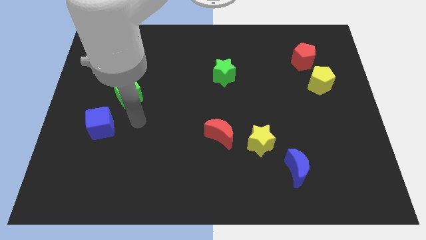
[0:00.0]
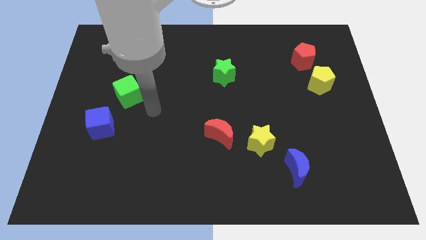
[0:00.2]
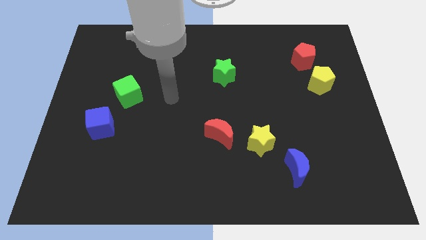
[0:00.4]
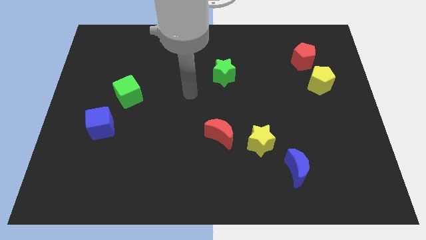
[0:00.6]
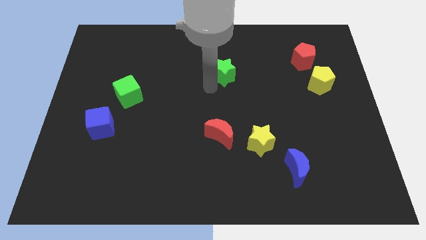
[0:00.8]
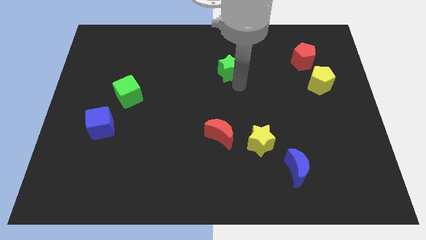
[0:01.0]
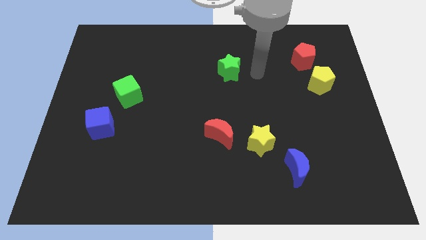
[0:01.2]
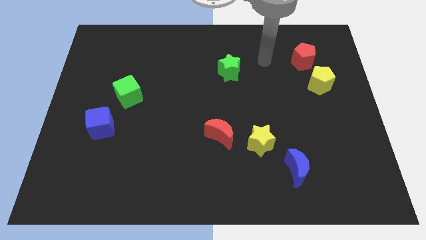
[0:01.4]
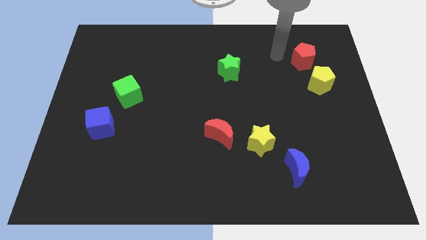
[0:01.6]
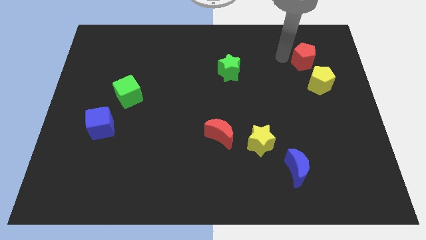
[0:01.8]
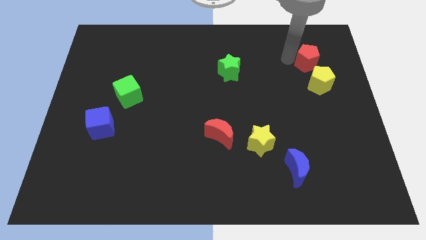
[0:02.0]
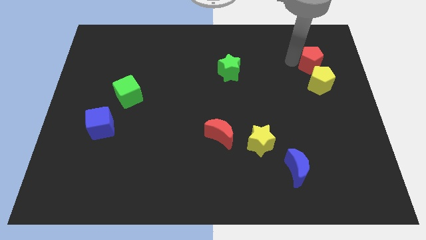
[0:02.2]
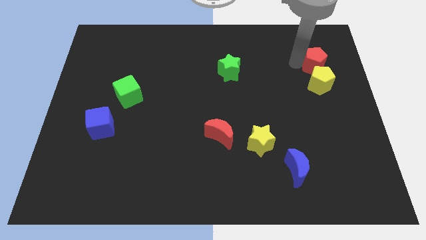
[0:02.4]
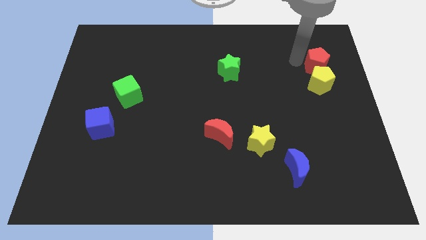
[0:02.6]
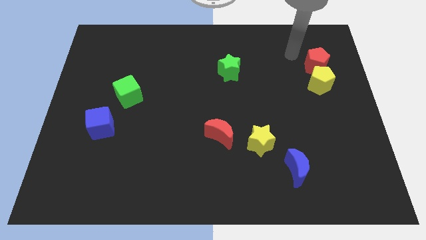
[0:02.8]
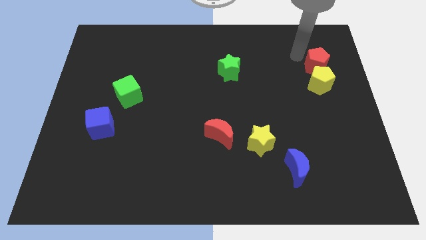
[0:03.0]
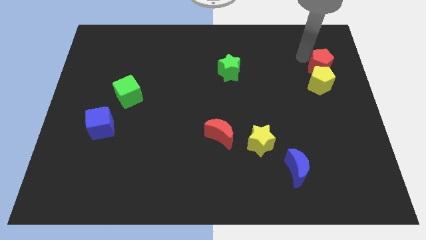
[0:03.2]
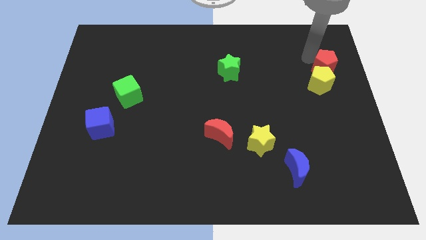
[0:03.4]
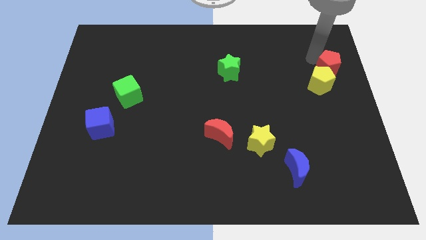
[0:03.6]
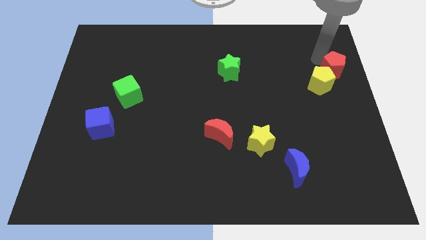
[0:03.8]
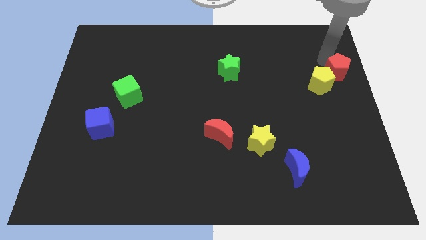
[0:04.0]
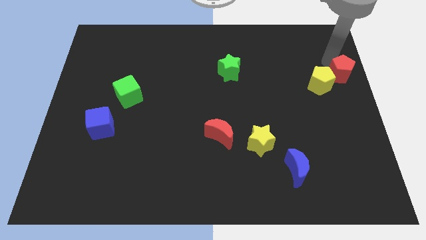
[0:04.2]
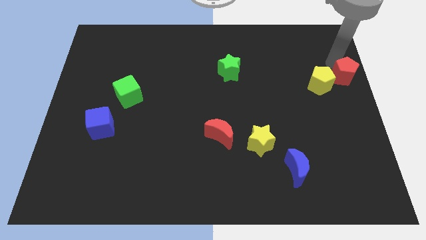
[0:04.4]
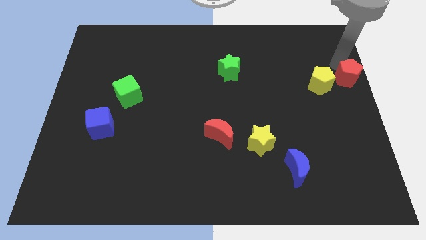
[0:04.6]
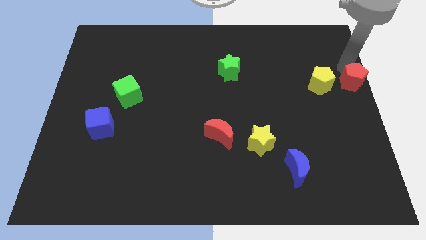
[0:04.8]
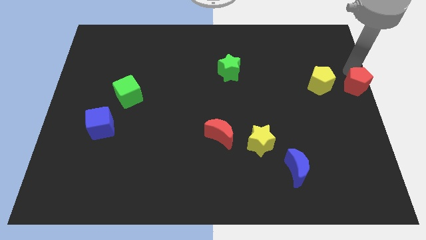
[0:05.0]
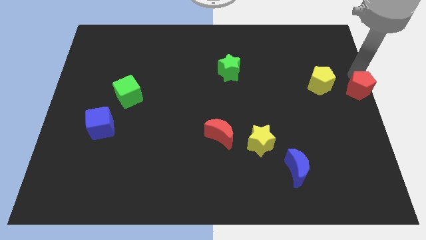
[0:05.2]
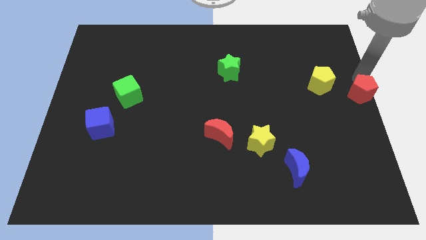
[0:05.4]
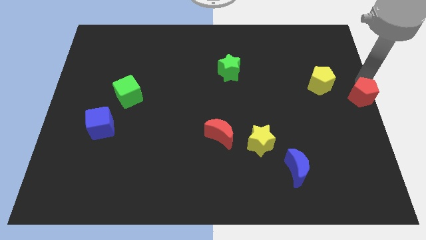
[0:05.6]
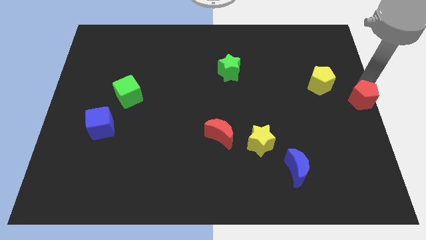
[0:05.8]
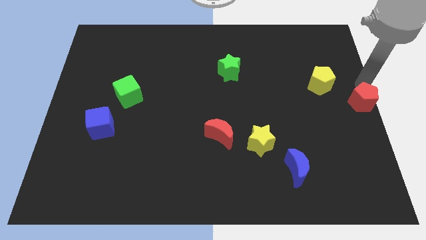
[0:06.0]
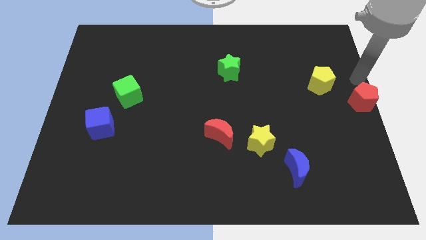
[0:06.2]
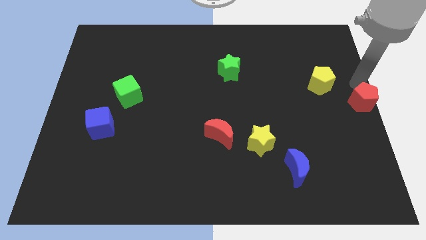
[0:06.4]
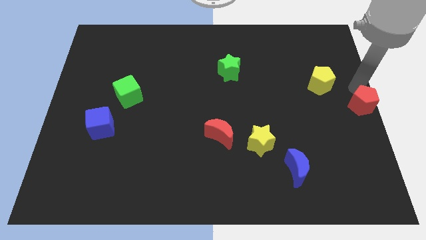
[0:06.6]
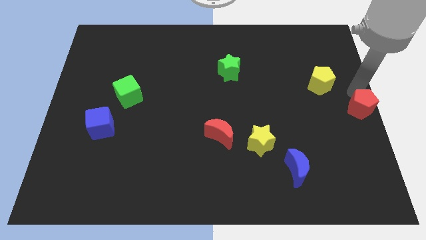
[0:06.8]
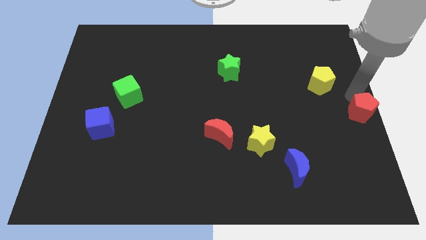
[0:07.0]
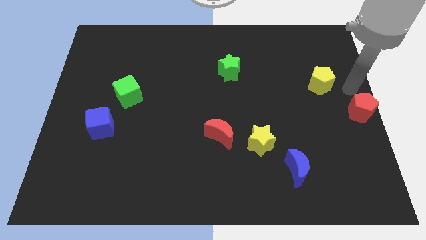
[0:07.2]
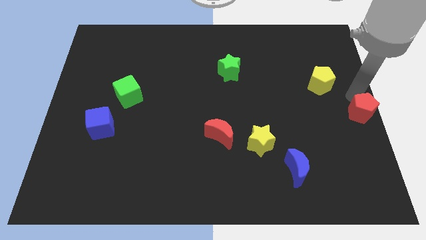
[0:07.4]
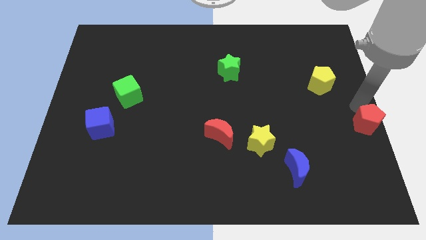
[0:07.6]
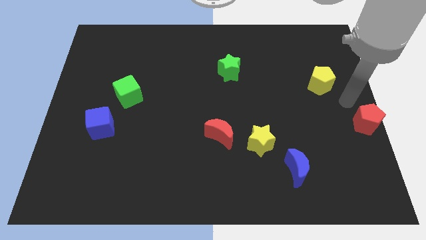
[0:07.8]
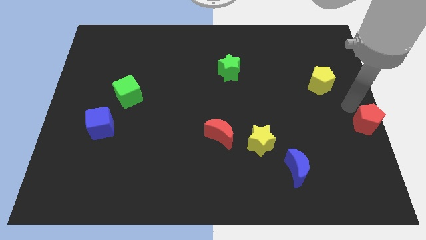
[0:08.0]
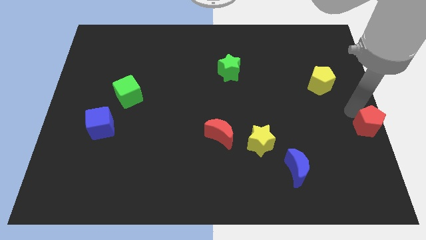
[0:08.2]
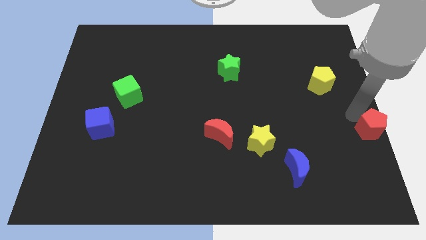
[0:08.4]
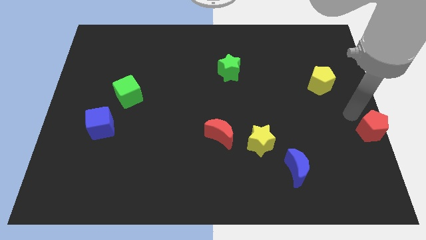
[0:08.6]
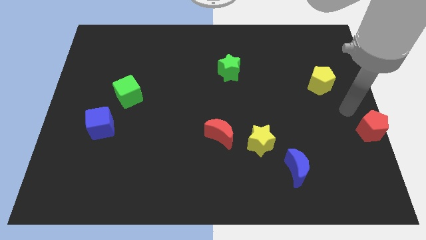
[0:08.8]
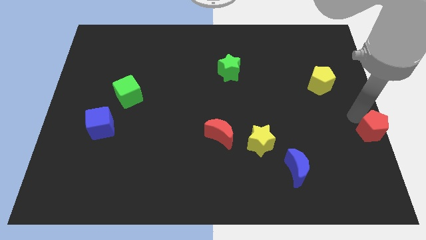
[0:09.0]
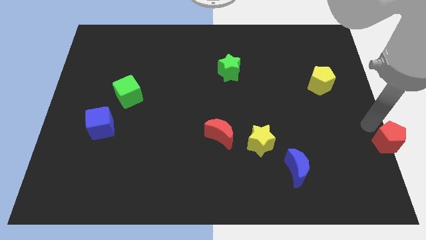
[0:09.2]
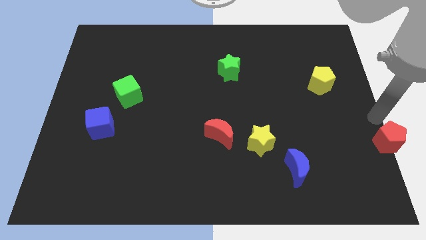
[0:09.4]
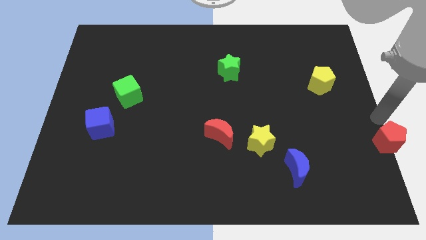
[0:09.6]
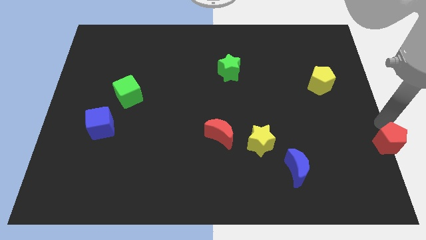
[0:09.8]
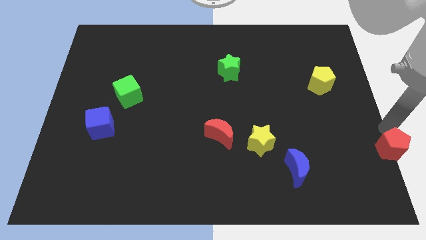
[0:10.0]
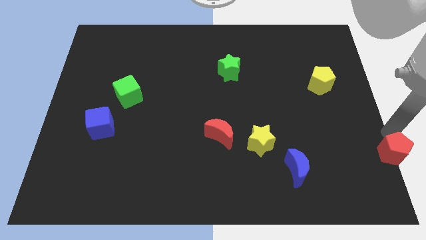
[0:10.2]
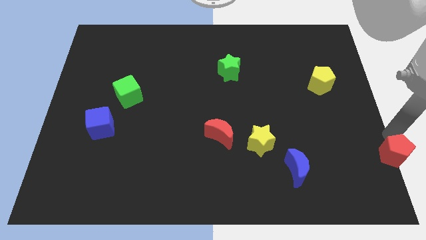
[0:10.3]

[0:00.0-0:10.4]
slide the red pentagon to the lower right corner

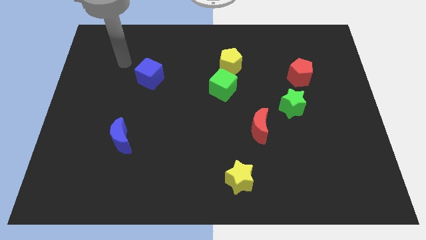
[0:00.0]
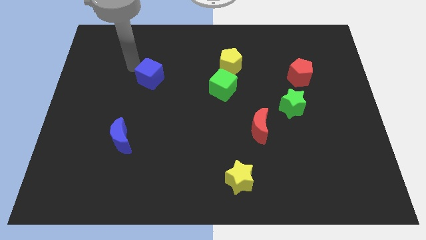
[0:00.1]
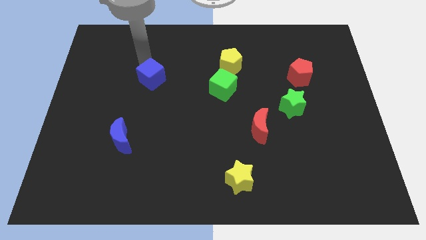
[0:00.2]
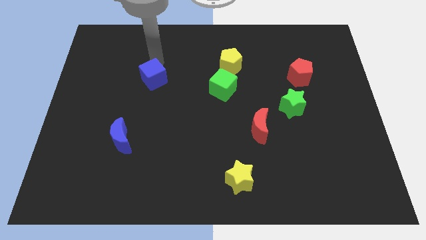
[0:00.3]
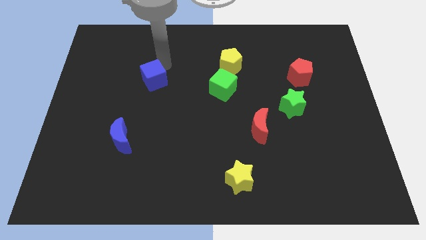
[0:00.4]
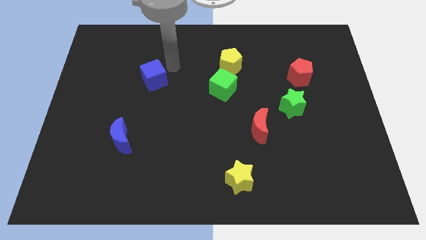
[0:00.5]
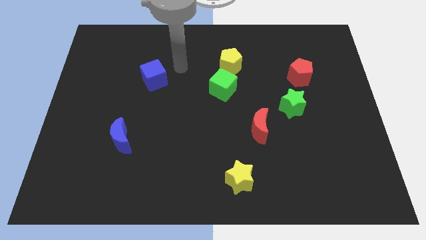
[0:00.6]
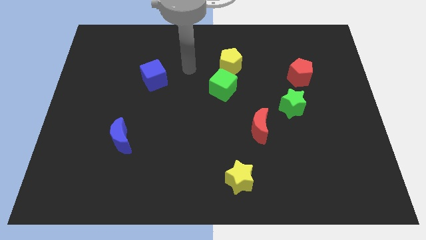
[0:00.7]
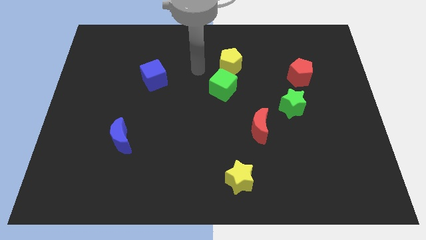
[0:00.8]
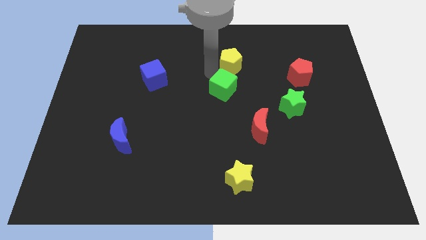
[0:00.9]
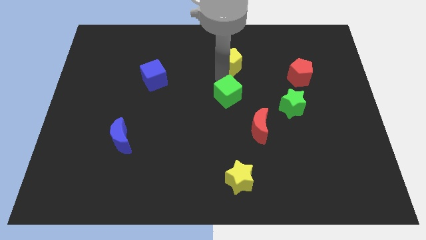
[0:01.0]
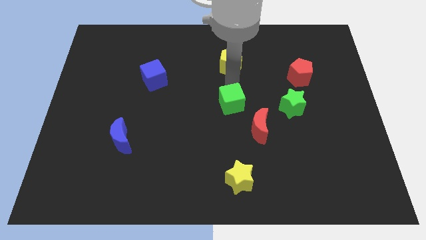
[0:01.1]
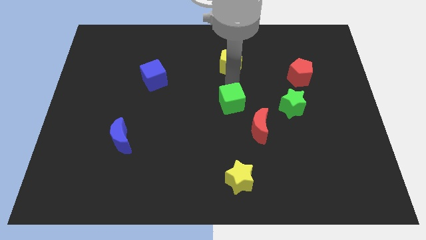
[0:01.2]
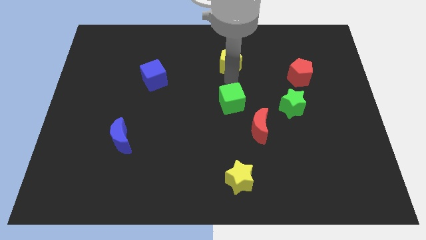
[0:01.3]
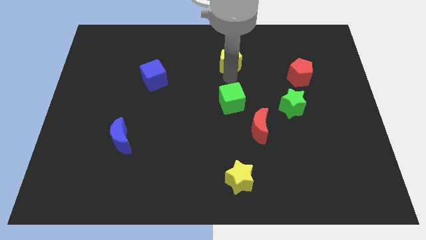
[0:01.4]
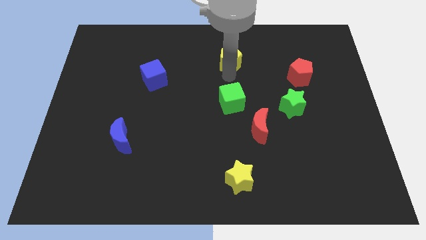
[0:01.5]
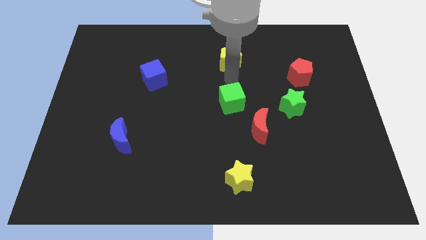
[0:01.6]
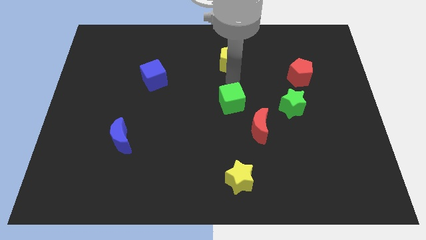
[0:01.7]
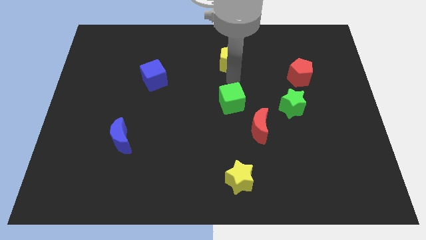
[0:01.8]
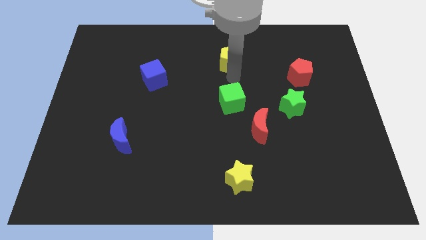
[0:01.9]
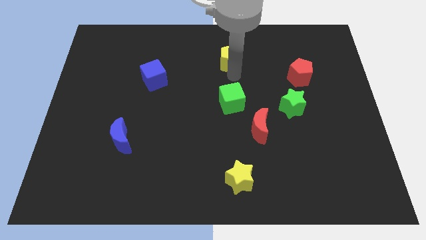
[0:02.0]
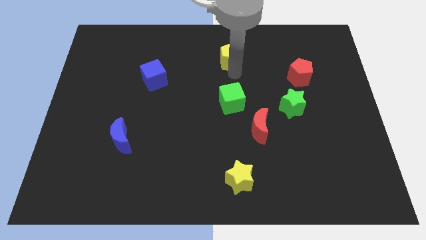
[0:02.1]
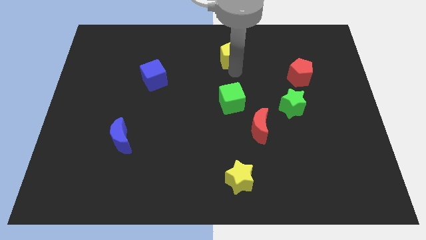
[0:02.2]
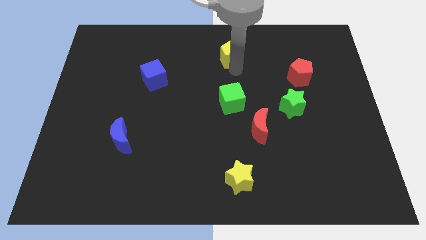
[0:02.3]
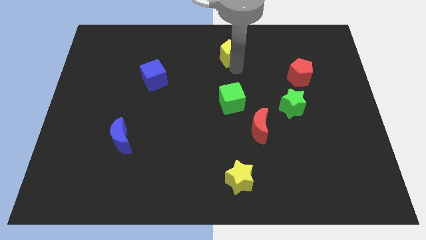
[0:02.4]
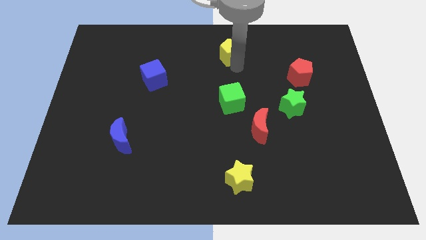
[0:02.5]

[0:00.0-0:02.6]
push the yellow pentagon to the top side
